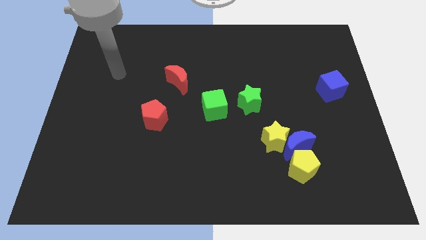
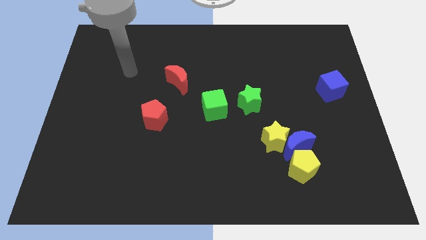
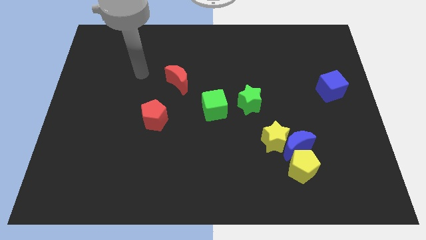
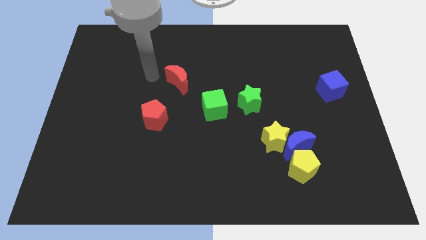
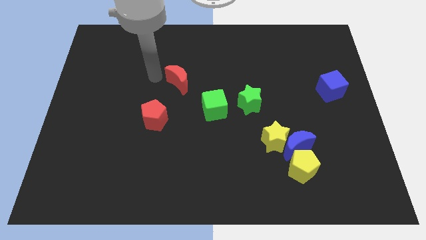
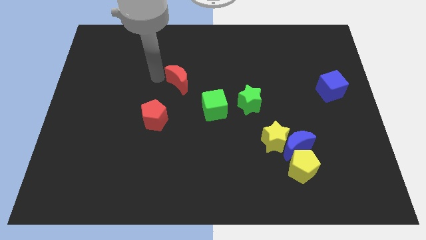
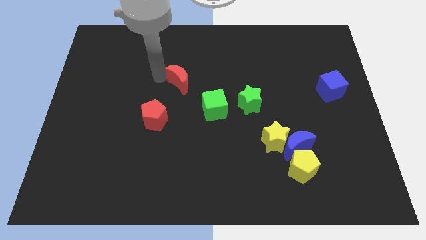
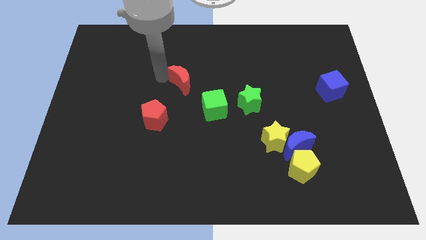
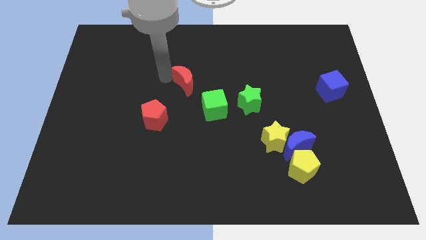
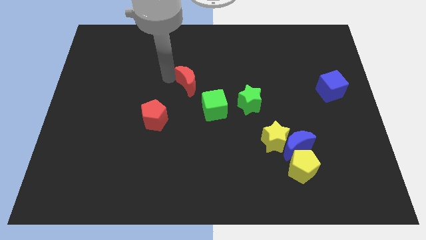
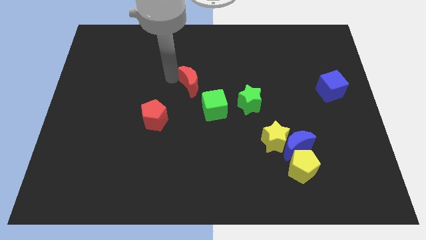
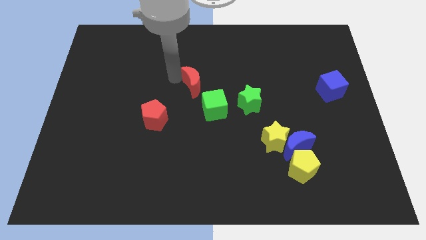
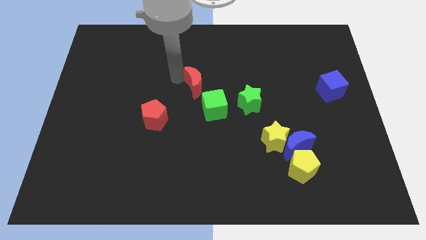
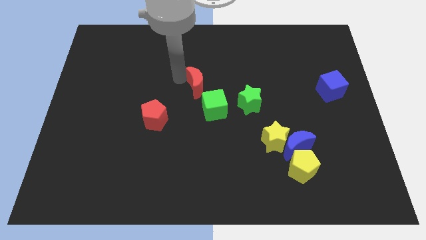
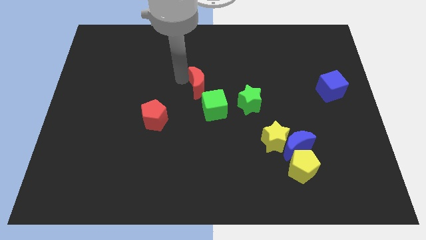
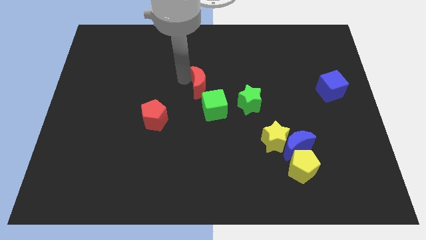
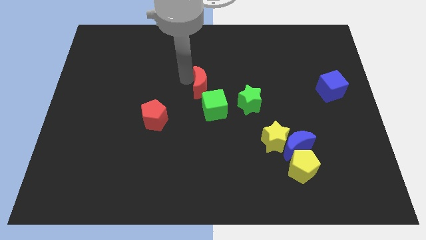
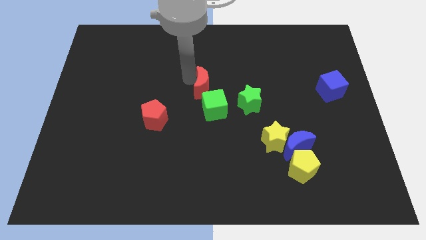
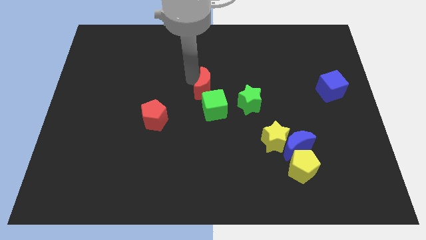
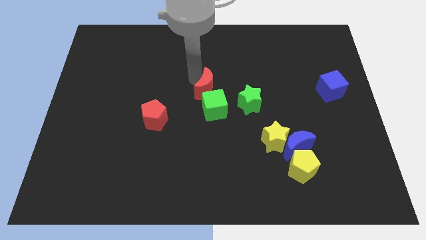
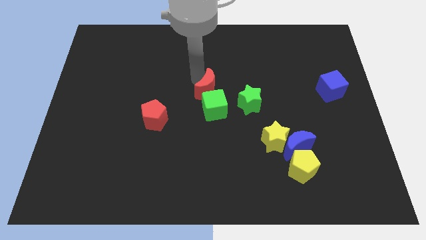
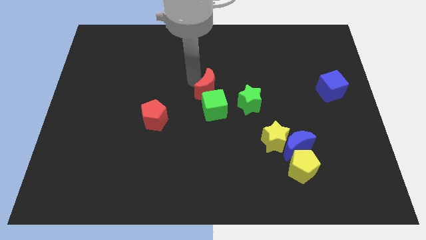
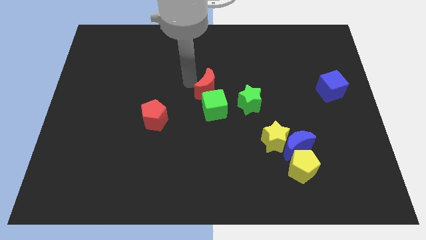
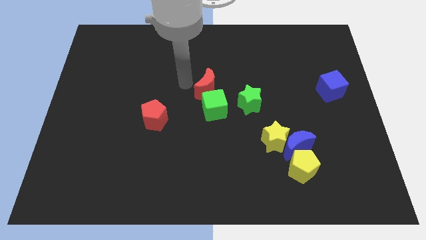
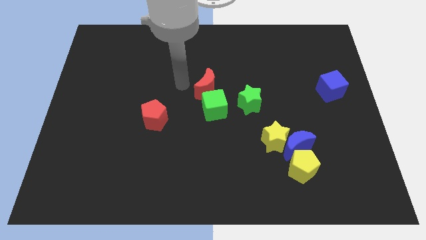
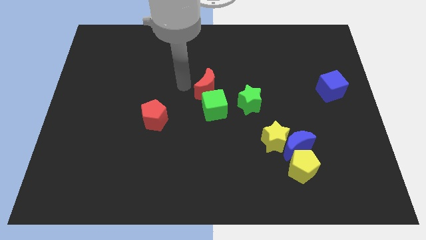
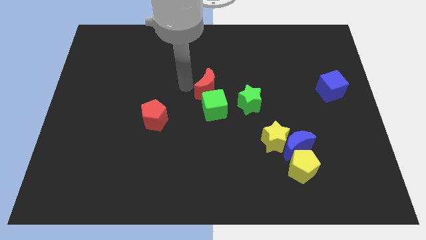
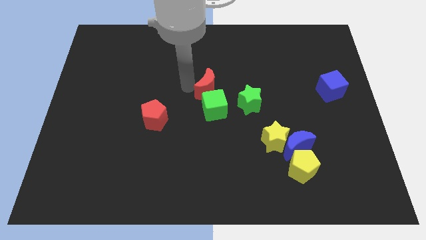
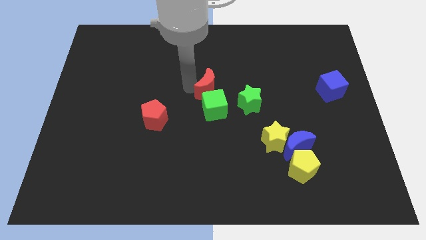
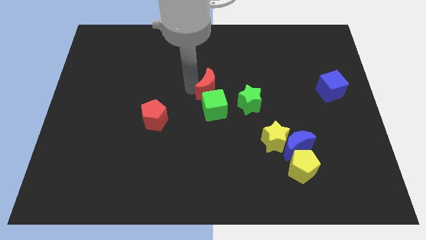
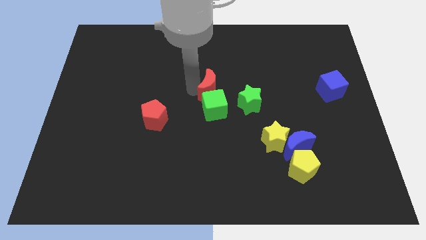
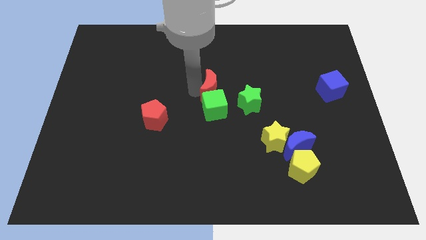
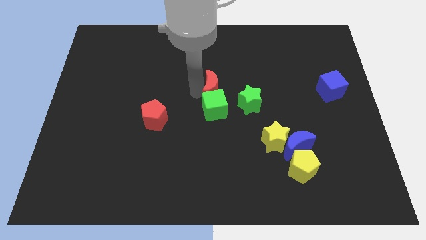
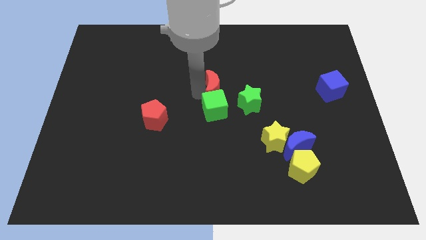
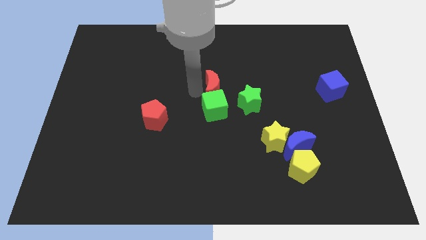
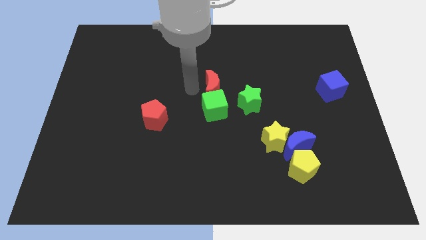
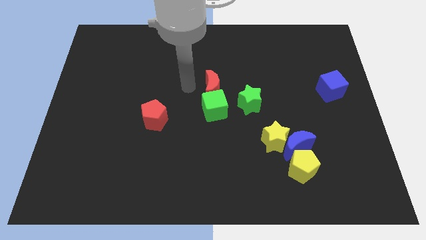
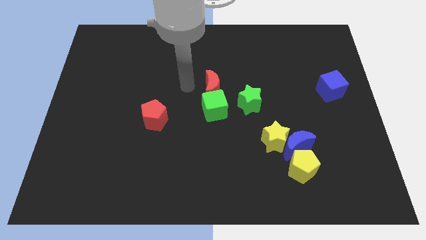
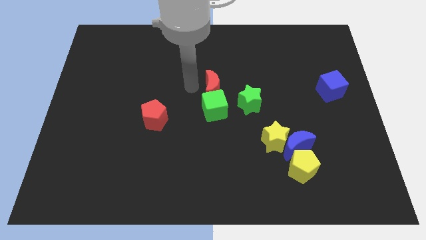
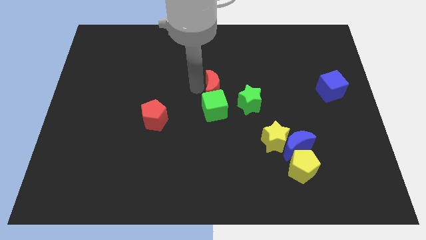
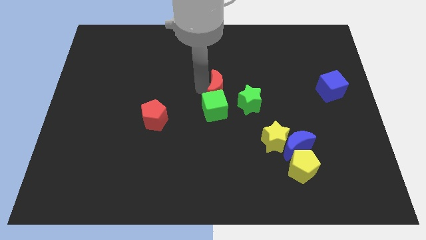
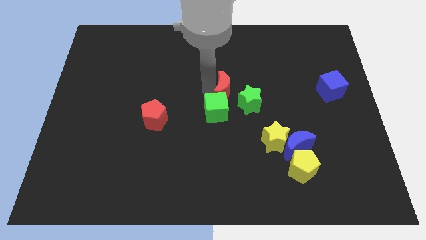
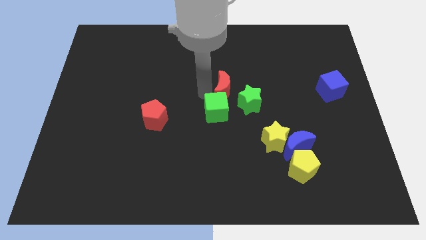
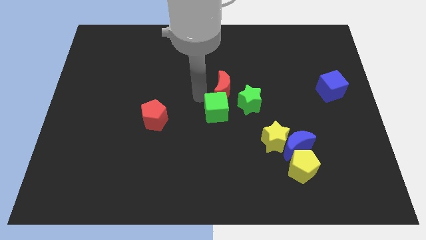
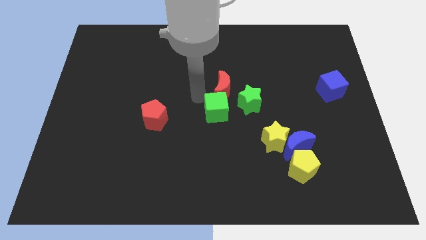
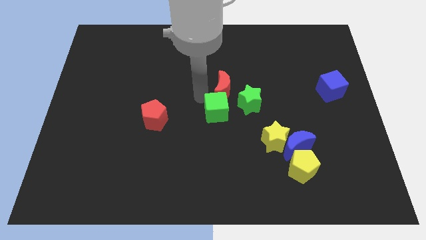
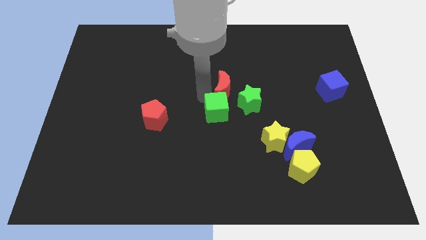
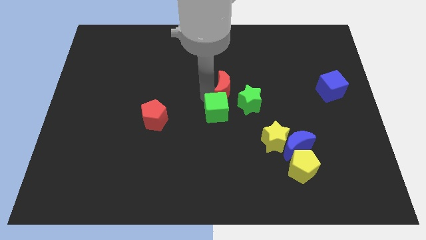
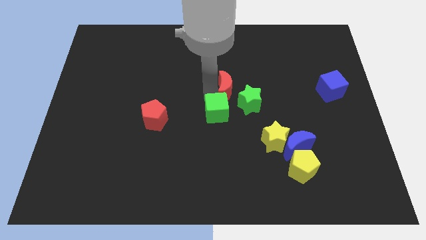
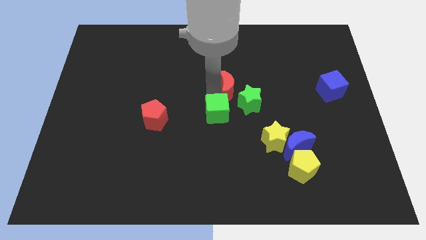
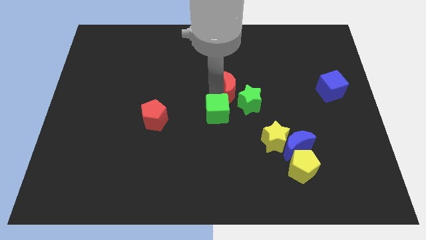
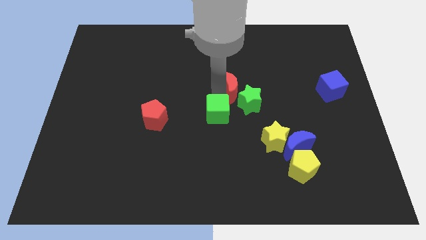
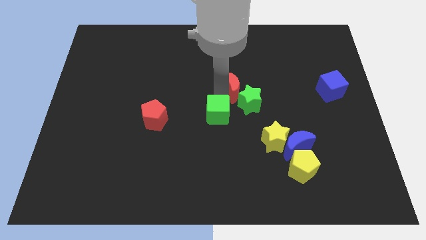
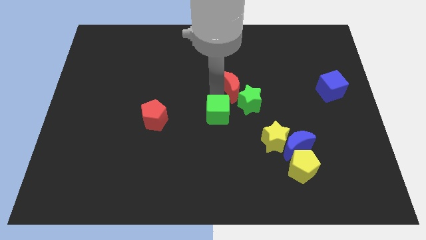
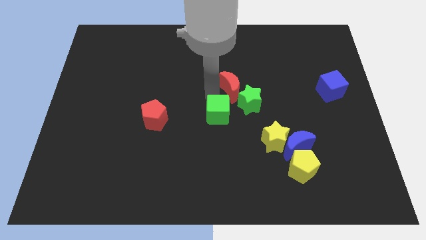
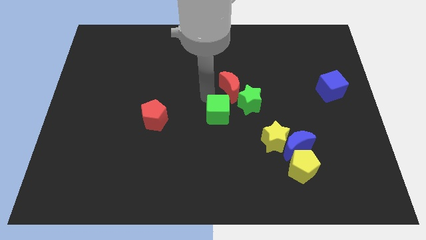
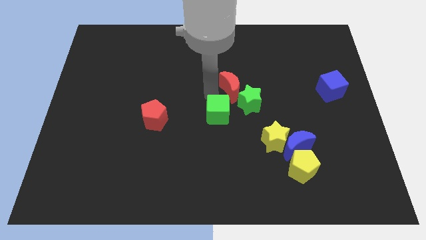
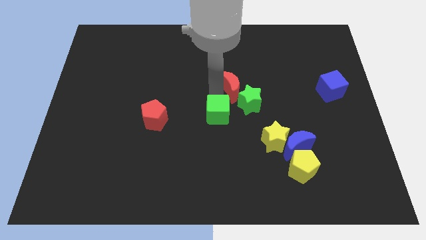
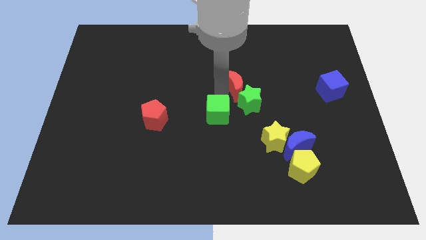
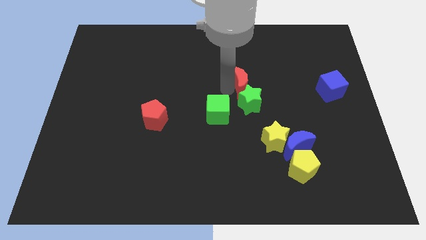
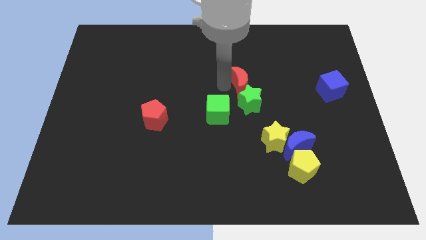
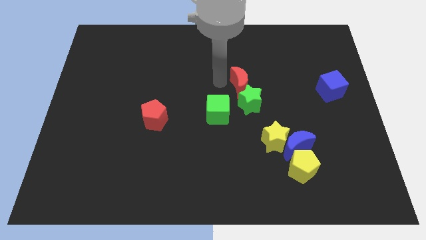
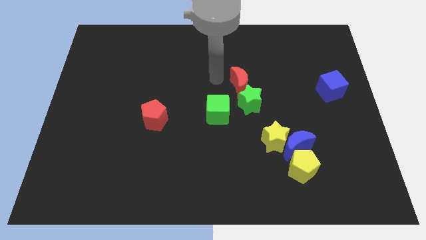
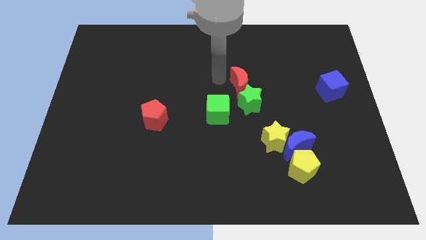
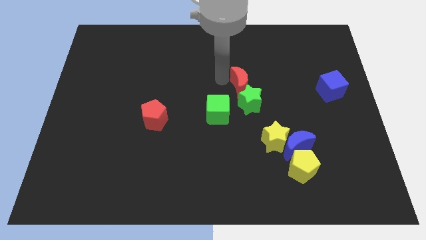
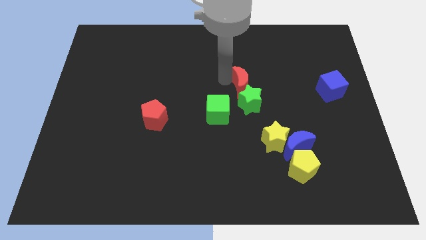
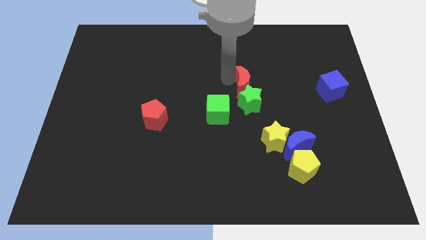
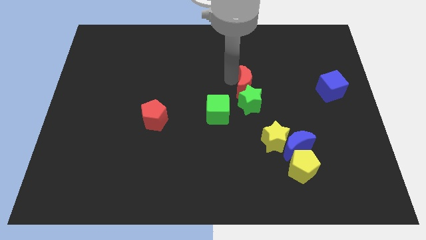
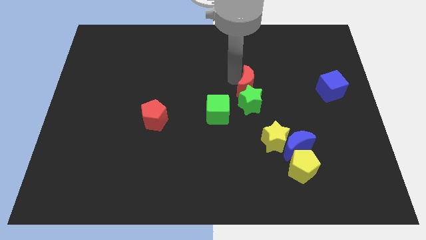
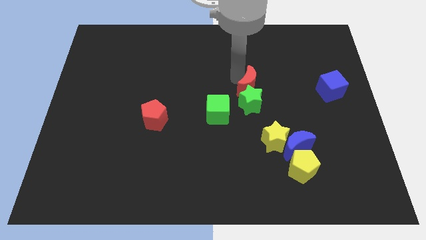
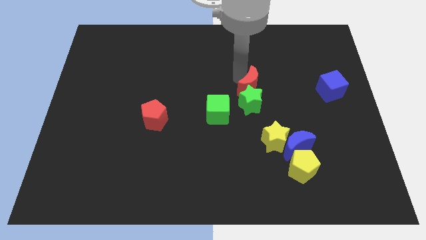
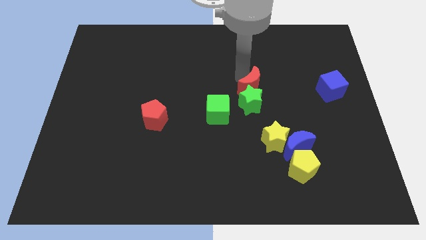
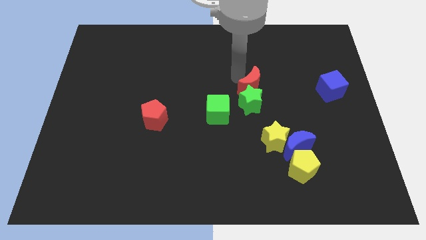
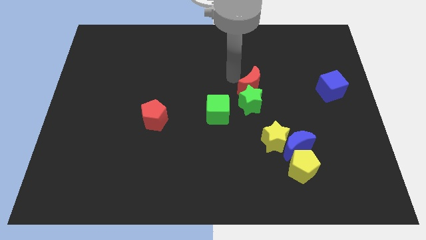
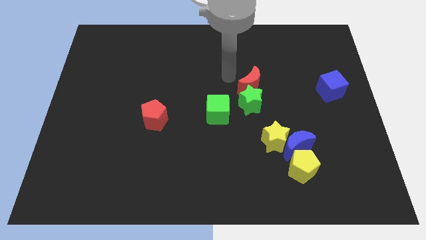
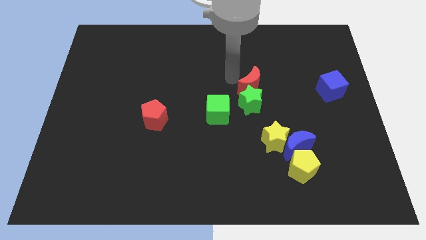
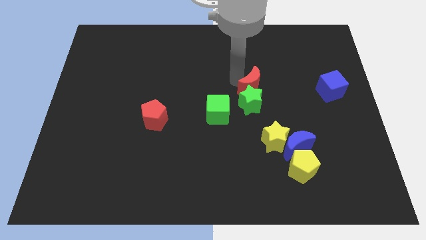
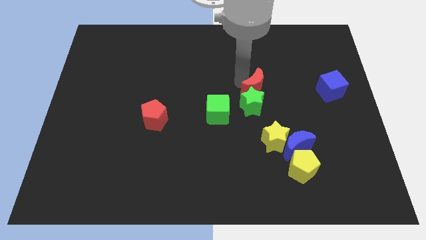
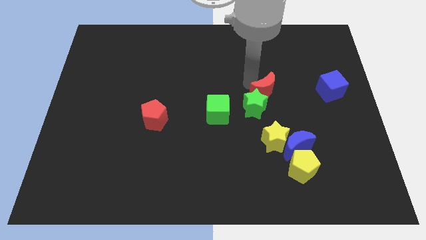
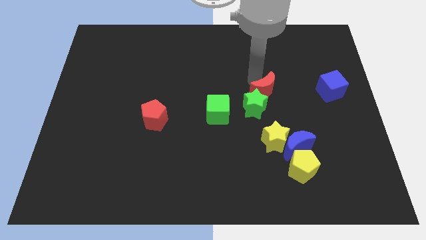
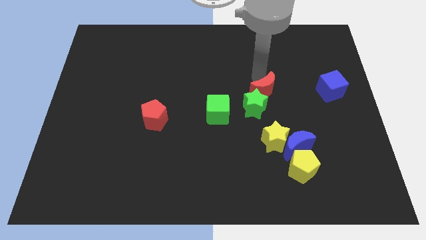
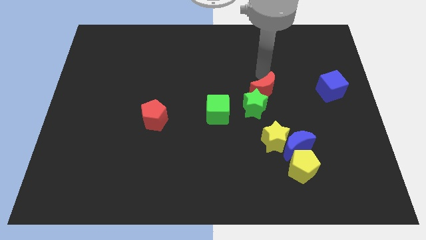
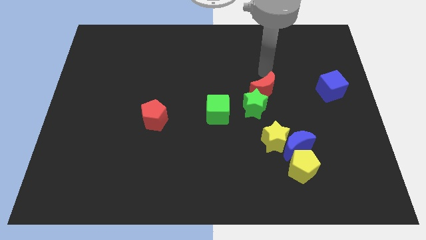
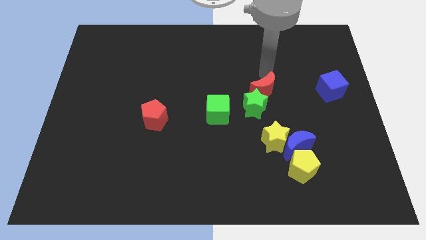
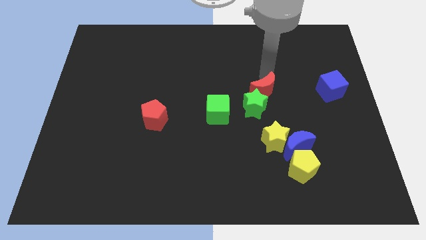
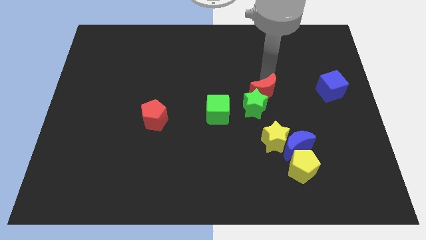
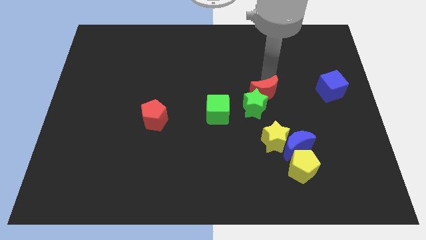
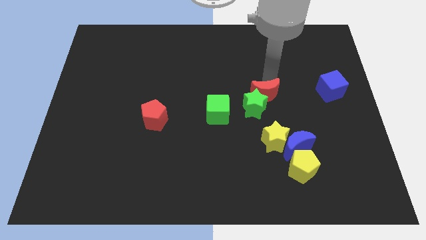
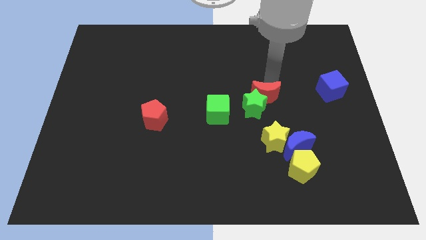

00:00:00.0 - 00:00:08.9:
move the red moon to the right side of the green cube
